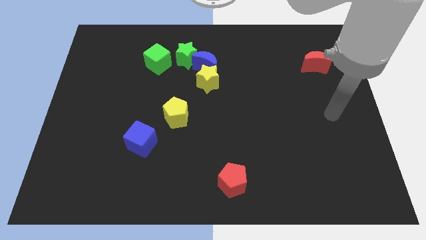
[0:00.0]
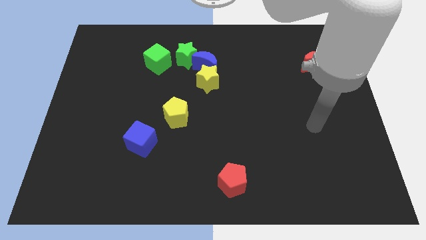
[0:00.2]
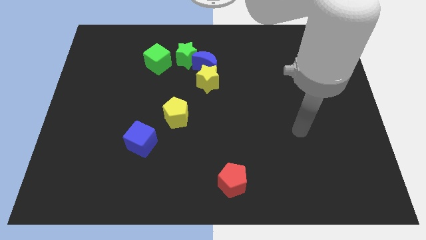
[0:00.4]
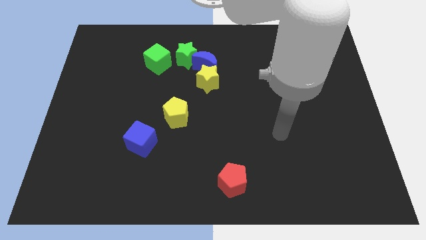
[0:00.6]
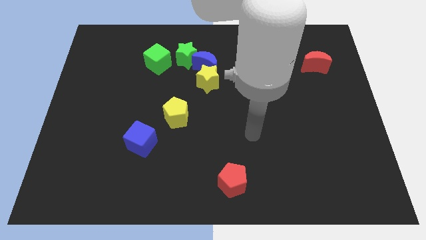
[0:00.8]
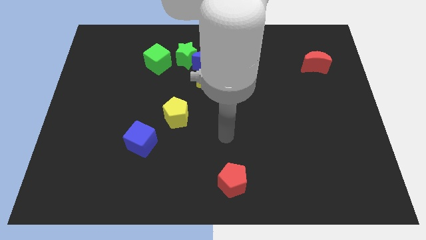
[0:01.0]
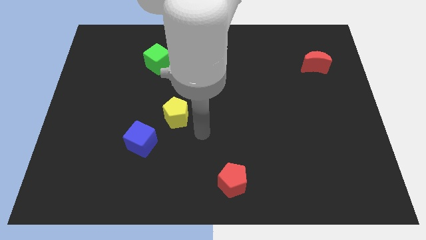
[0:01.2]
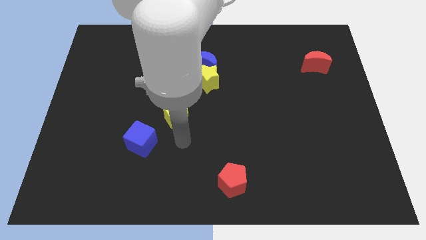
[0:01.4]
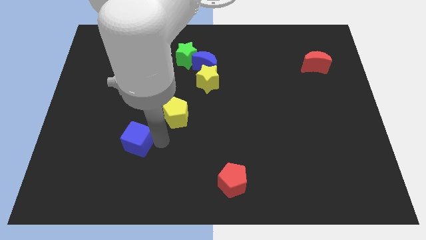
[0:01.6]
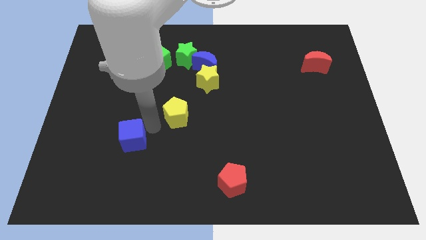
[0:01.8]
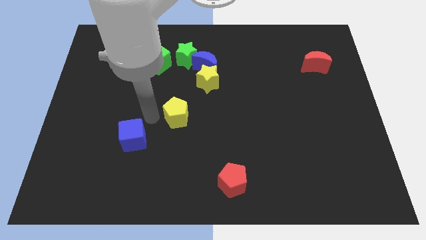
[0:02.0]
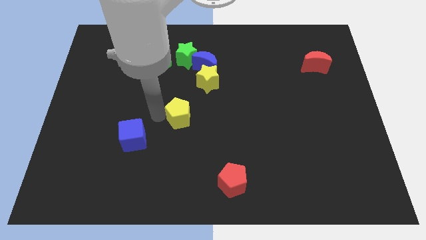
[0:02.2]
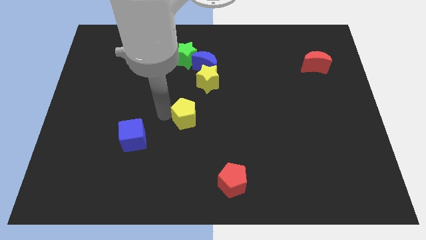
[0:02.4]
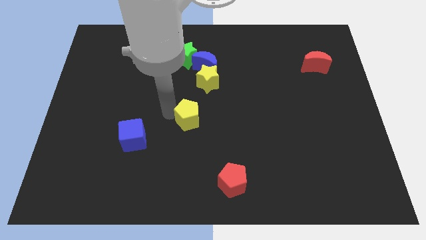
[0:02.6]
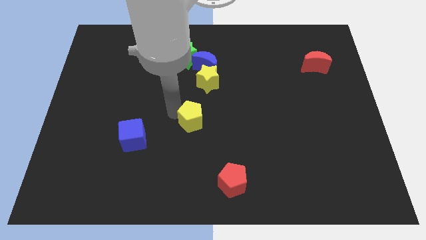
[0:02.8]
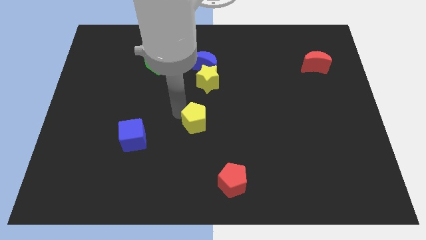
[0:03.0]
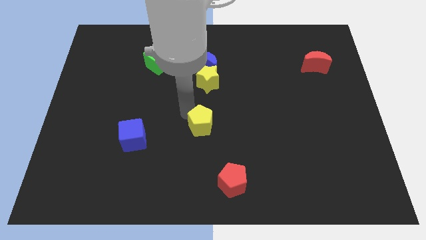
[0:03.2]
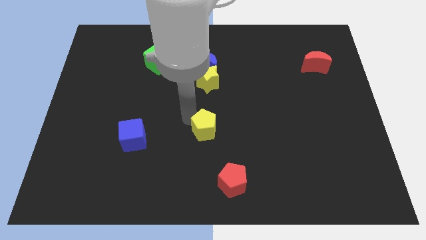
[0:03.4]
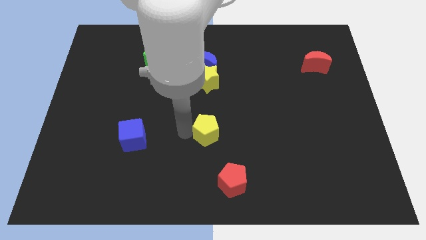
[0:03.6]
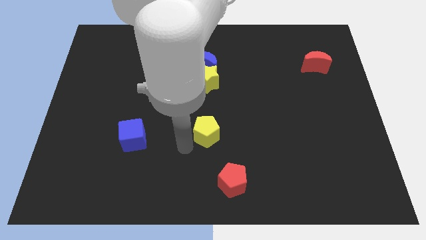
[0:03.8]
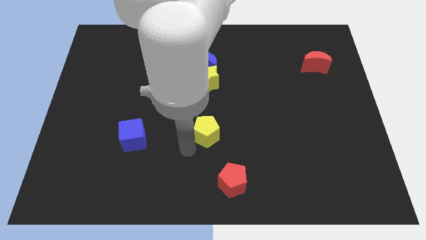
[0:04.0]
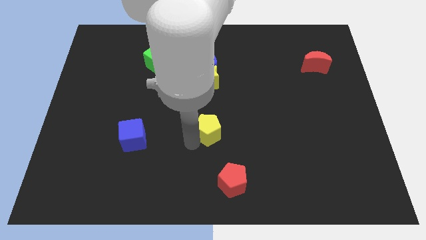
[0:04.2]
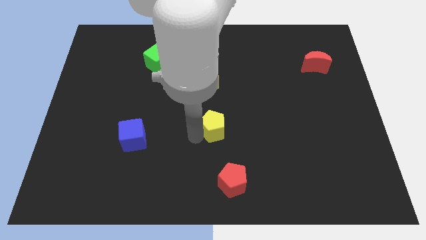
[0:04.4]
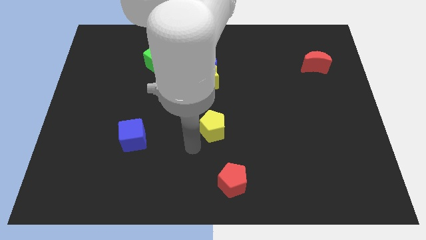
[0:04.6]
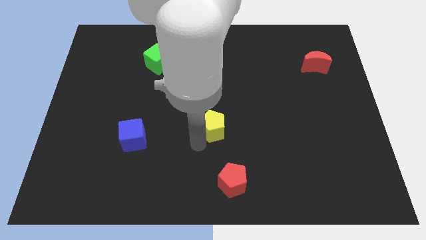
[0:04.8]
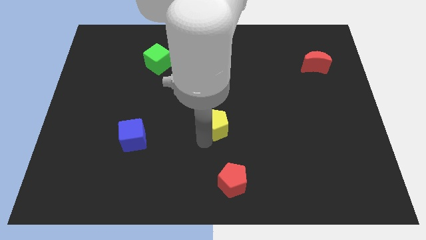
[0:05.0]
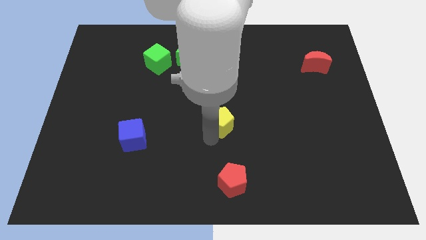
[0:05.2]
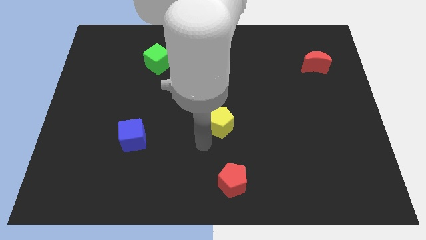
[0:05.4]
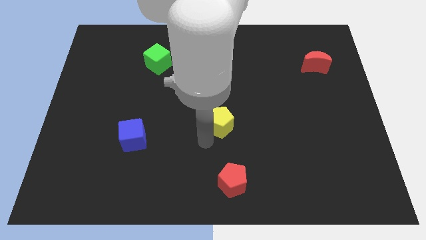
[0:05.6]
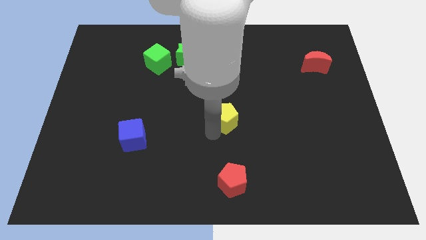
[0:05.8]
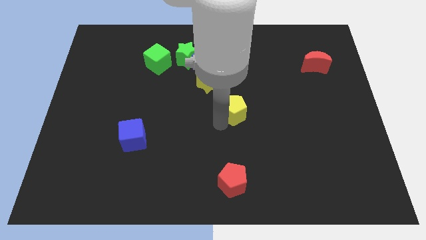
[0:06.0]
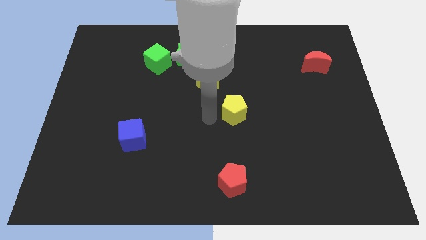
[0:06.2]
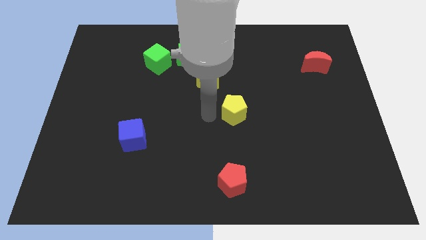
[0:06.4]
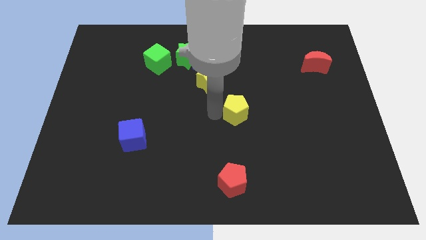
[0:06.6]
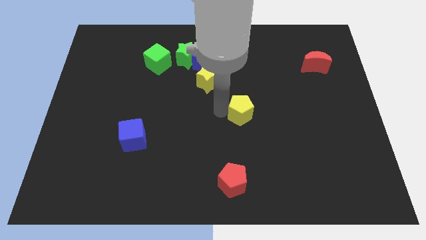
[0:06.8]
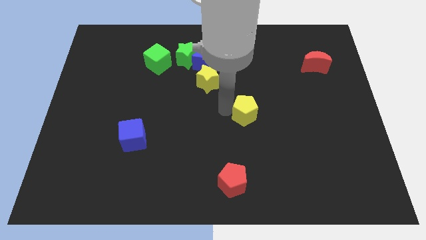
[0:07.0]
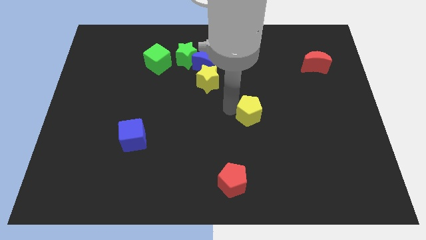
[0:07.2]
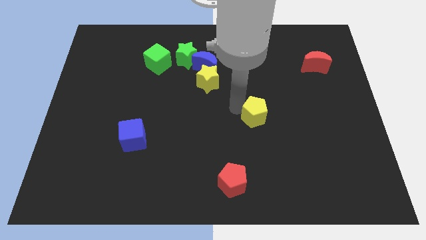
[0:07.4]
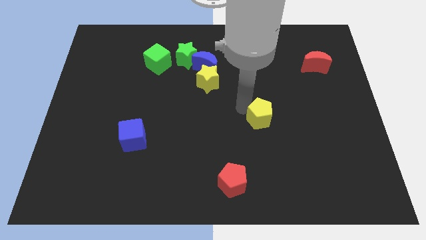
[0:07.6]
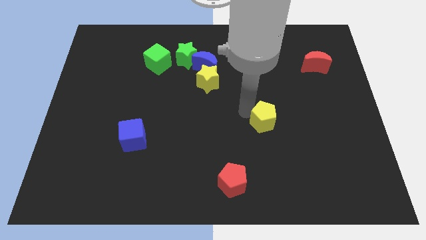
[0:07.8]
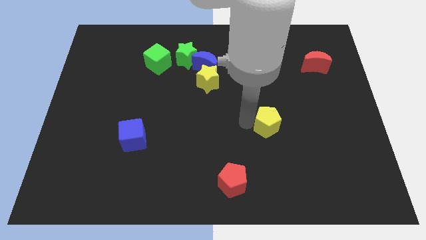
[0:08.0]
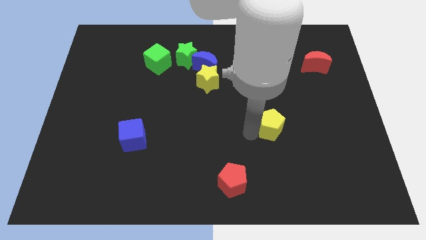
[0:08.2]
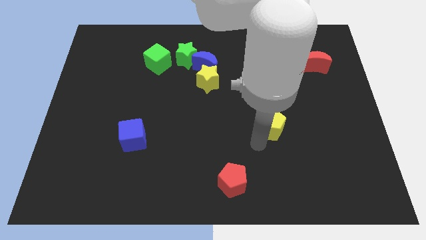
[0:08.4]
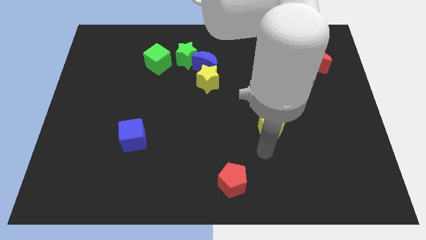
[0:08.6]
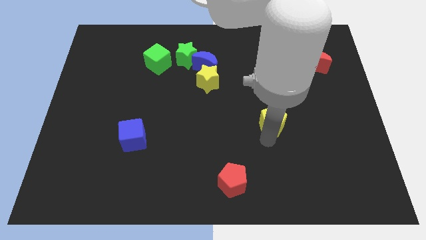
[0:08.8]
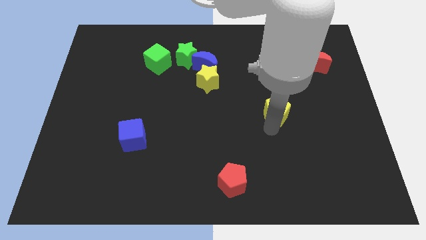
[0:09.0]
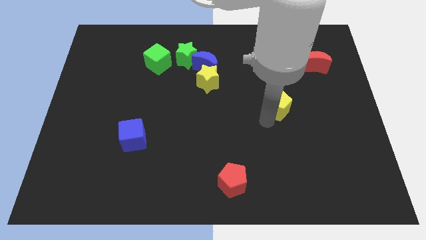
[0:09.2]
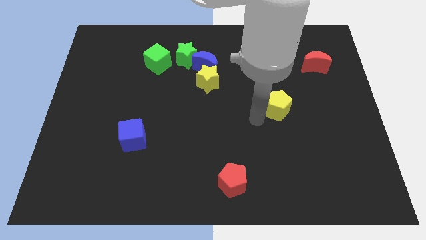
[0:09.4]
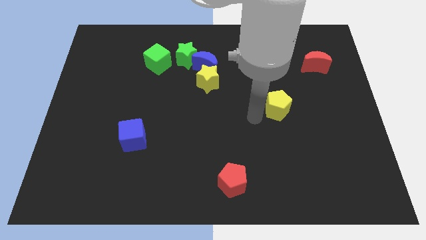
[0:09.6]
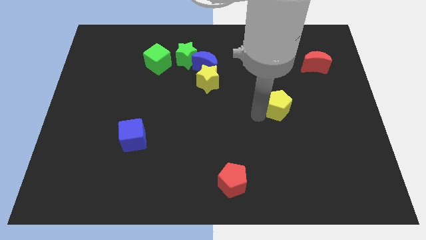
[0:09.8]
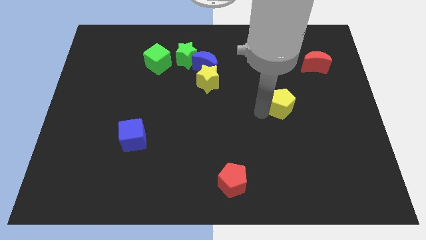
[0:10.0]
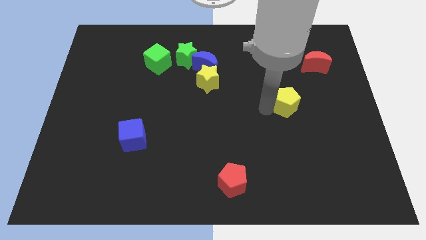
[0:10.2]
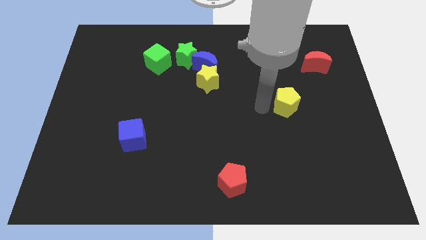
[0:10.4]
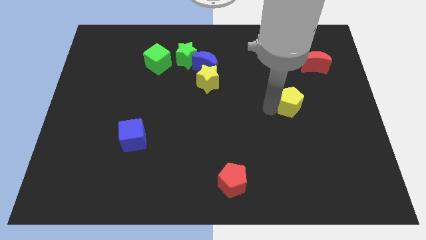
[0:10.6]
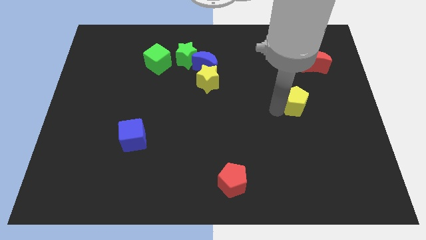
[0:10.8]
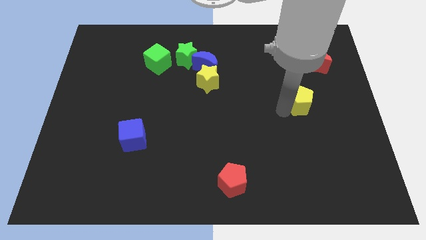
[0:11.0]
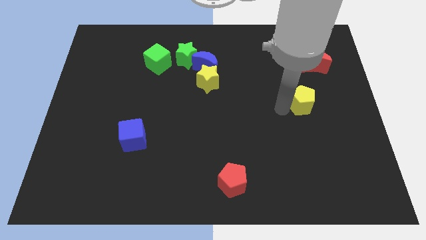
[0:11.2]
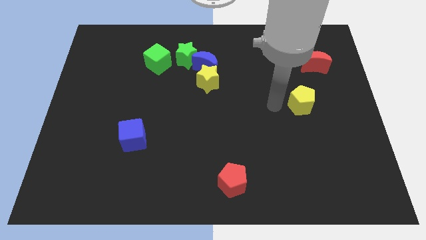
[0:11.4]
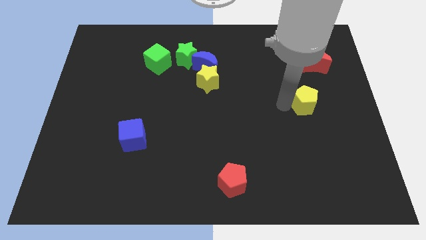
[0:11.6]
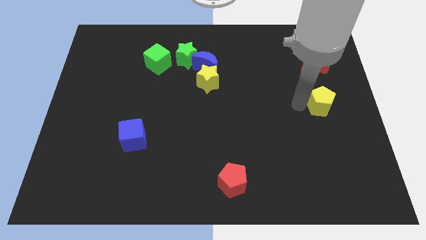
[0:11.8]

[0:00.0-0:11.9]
move the yellow pentagon to the right side of the board

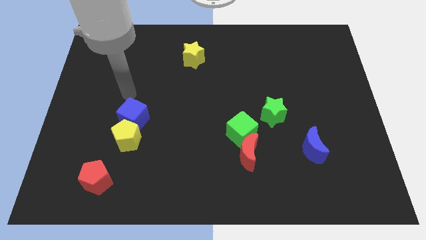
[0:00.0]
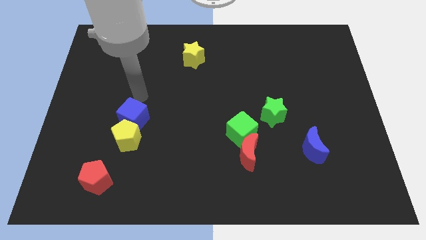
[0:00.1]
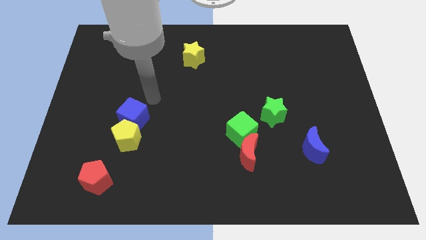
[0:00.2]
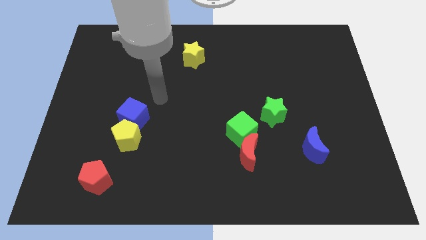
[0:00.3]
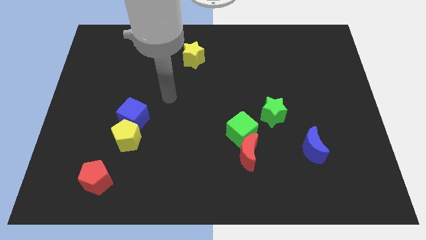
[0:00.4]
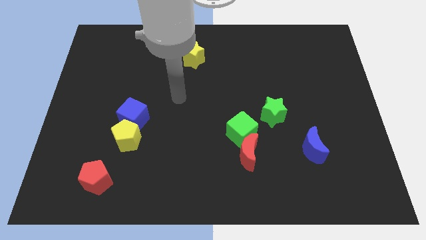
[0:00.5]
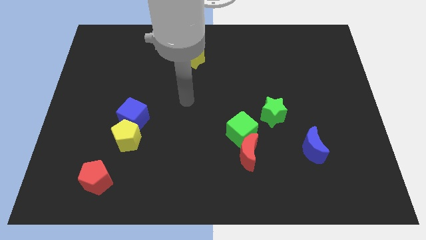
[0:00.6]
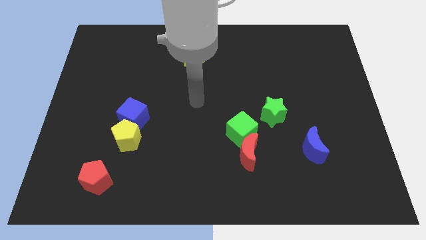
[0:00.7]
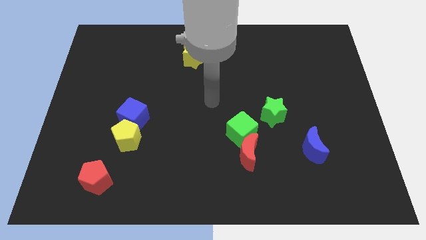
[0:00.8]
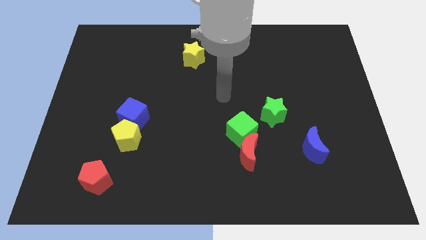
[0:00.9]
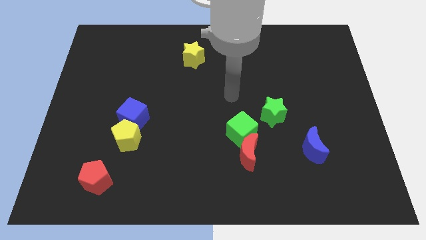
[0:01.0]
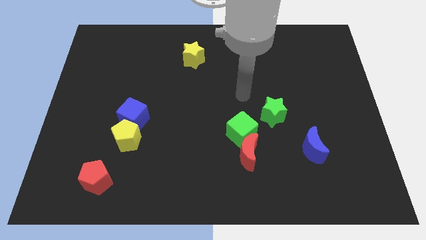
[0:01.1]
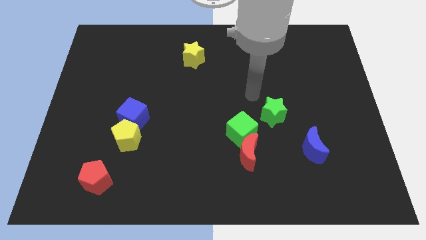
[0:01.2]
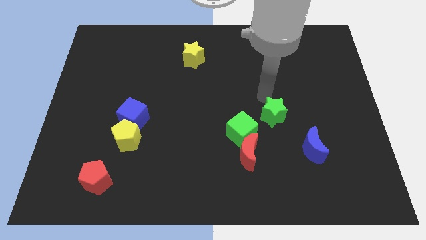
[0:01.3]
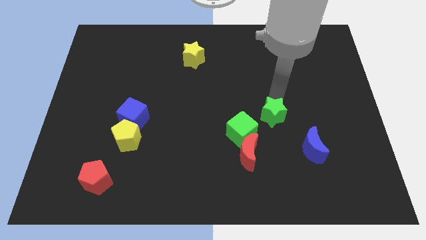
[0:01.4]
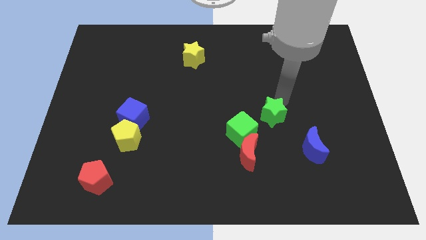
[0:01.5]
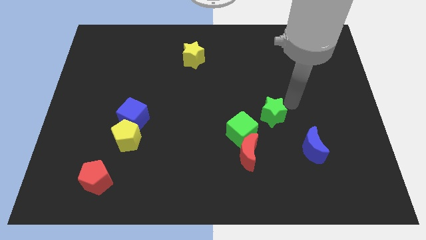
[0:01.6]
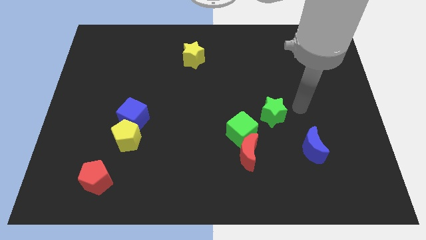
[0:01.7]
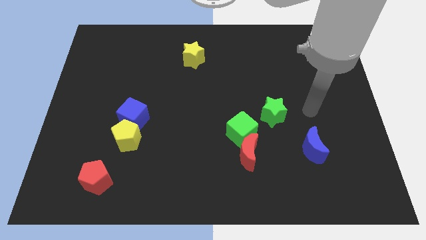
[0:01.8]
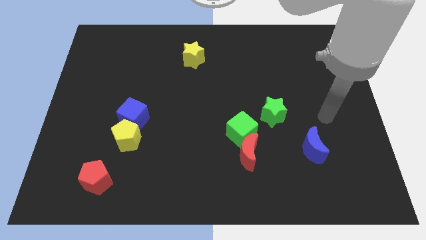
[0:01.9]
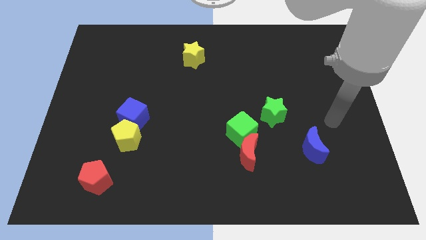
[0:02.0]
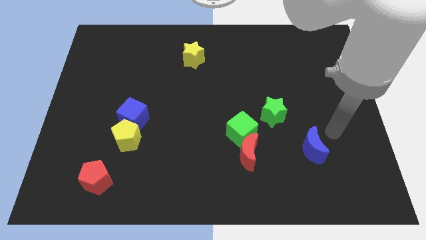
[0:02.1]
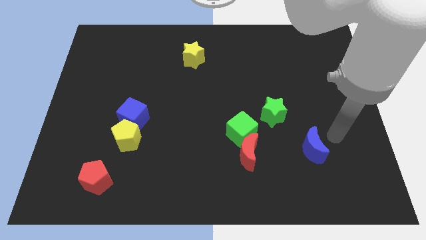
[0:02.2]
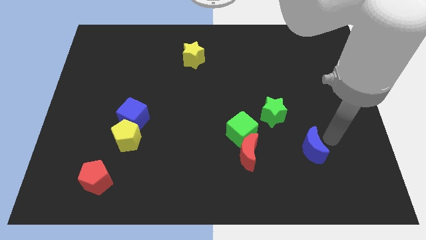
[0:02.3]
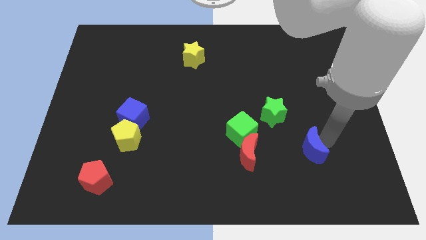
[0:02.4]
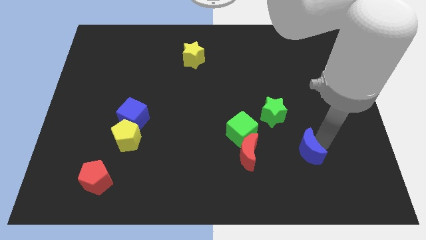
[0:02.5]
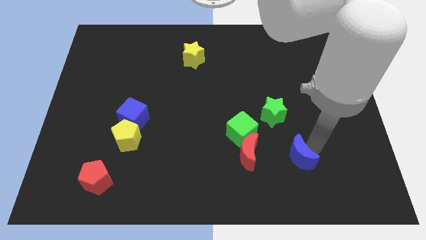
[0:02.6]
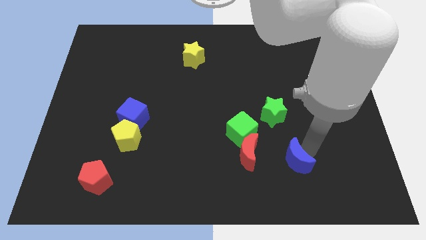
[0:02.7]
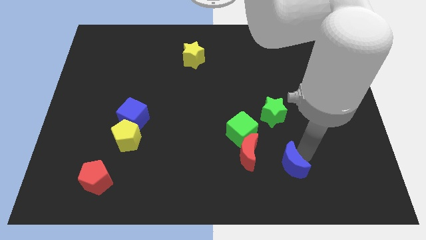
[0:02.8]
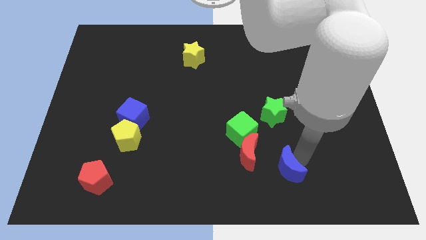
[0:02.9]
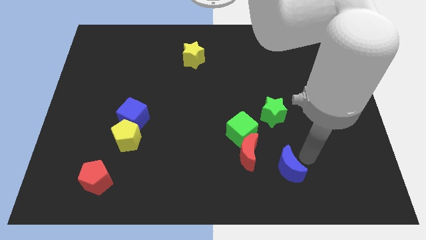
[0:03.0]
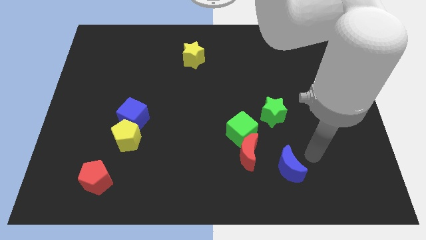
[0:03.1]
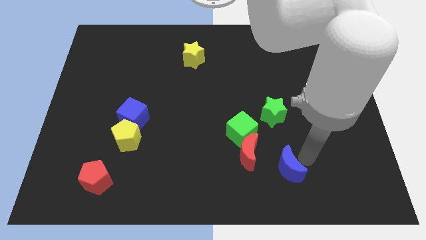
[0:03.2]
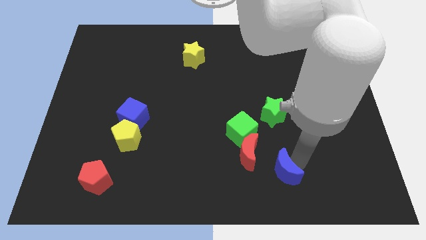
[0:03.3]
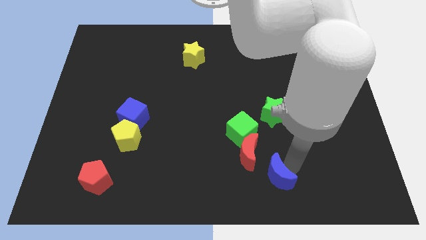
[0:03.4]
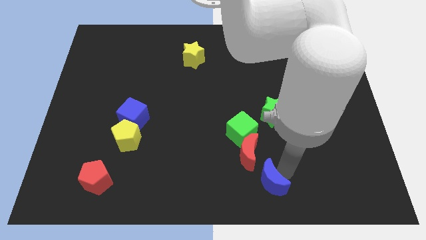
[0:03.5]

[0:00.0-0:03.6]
put the blue moon to the bottom
